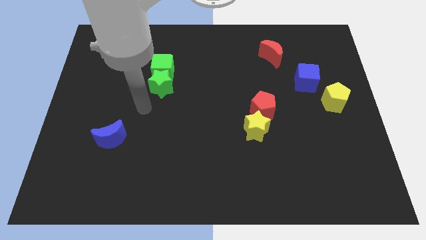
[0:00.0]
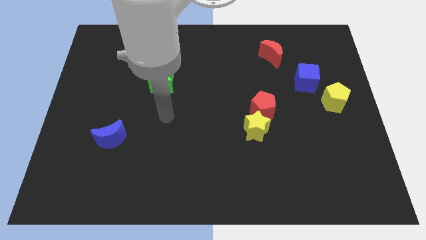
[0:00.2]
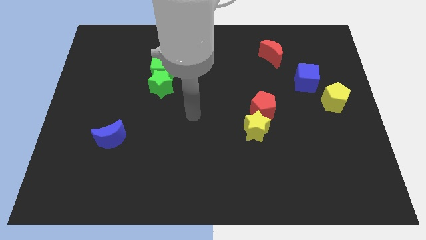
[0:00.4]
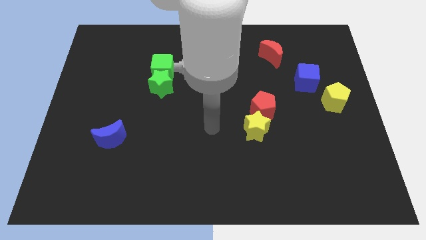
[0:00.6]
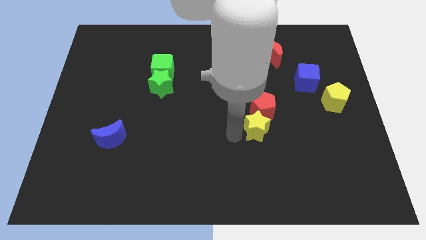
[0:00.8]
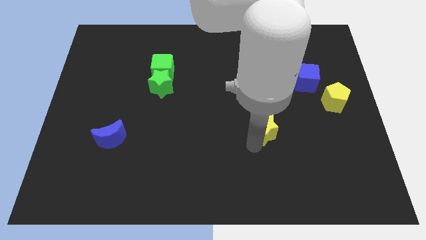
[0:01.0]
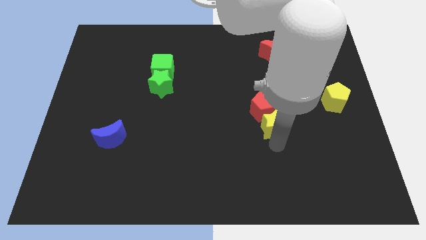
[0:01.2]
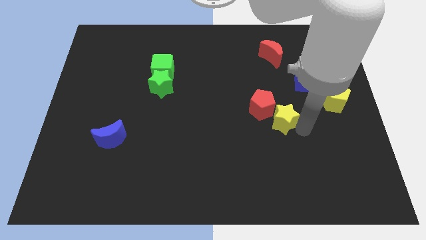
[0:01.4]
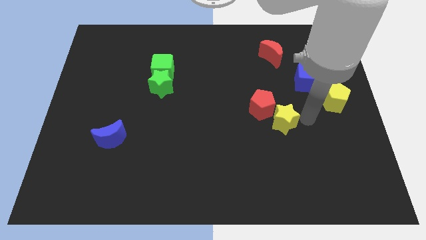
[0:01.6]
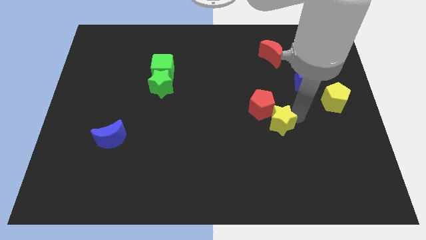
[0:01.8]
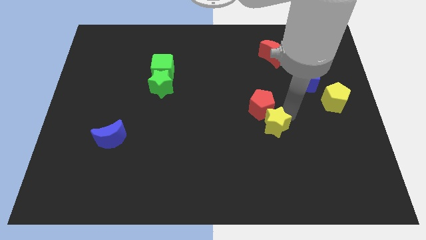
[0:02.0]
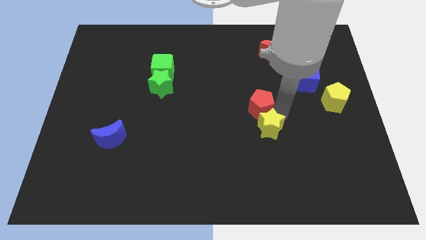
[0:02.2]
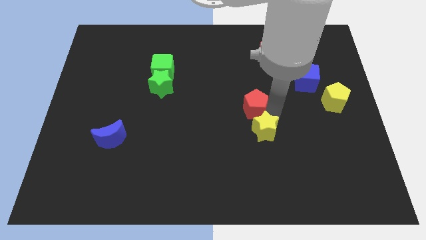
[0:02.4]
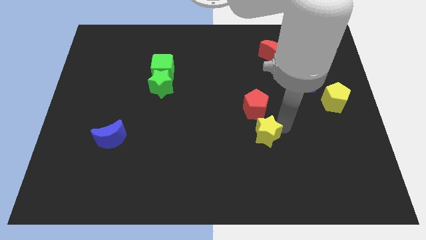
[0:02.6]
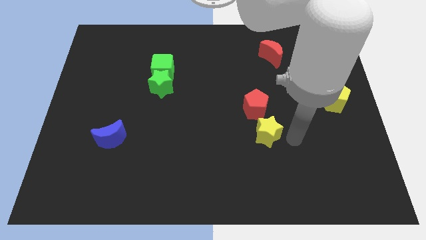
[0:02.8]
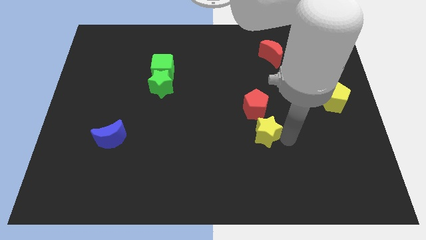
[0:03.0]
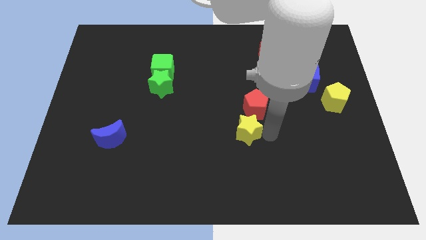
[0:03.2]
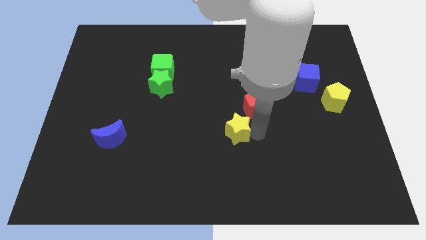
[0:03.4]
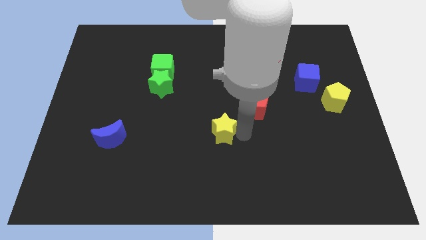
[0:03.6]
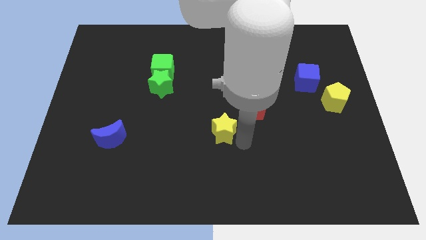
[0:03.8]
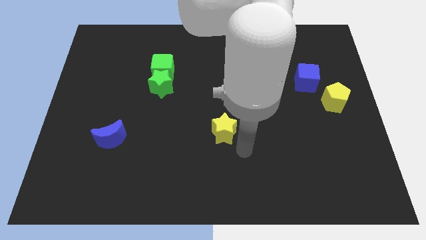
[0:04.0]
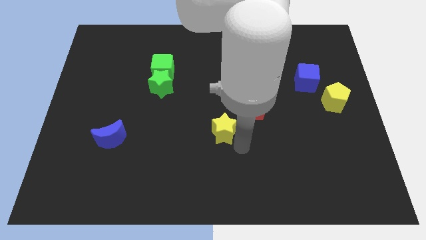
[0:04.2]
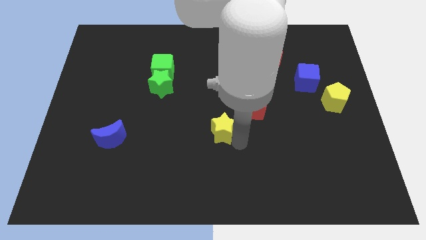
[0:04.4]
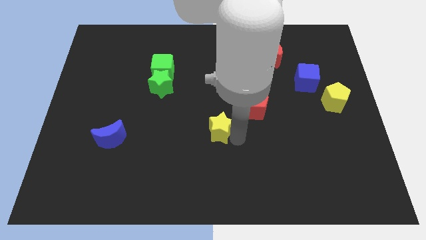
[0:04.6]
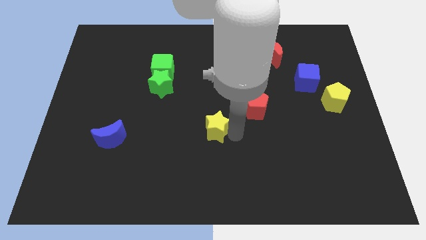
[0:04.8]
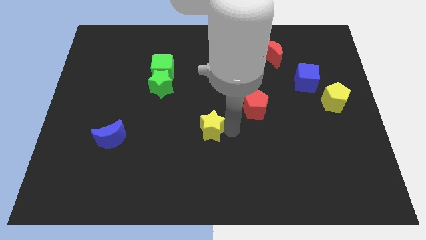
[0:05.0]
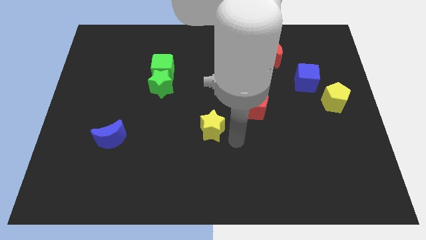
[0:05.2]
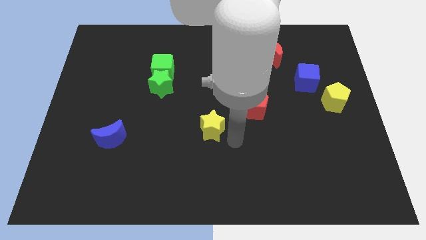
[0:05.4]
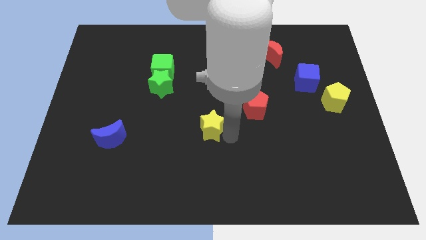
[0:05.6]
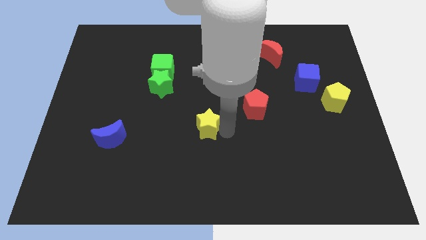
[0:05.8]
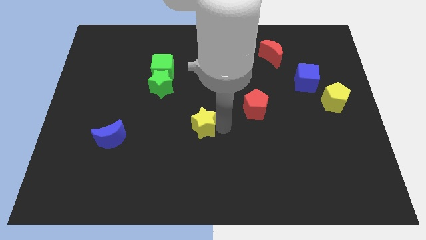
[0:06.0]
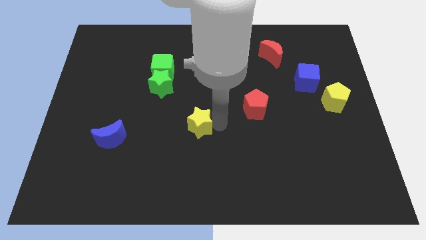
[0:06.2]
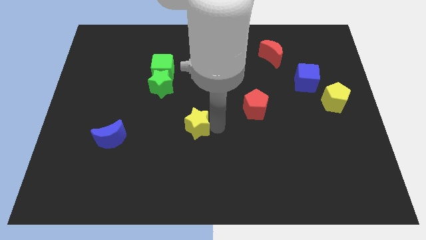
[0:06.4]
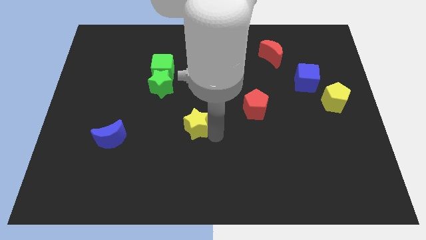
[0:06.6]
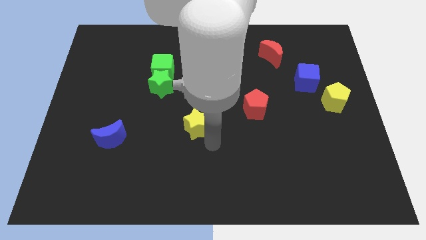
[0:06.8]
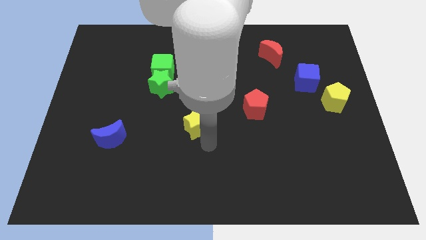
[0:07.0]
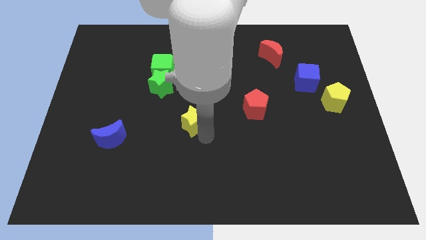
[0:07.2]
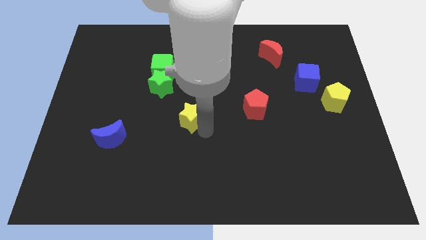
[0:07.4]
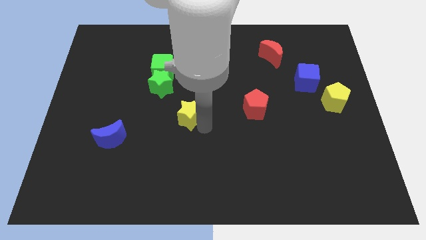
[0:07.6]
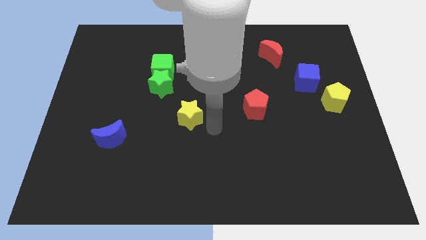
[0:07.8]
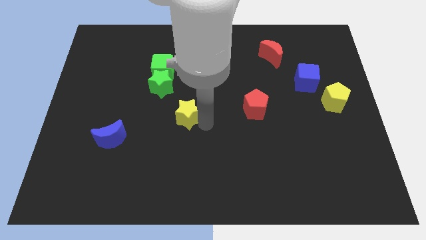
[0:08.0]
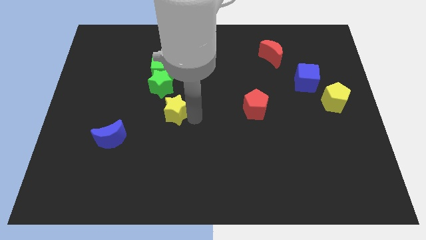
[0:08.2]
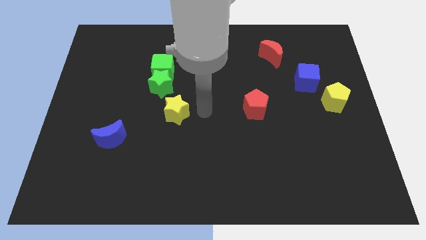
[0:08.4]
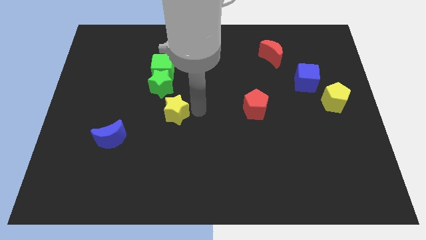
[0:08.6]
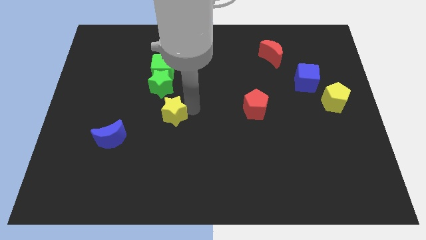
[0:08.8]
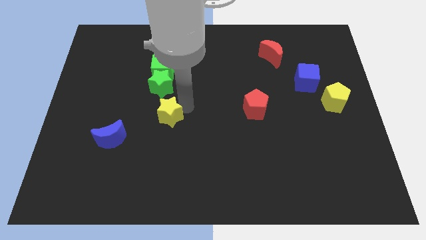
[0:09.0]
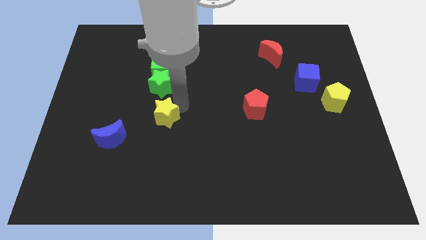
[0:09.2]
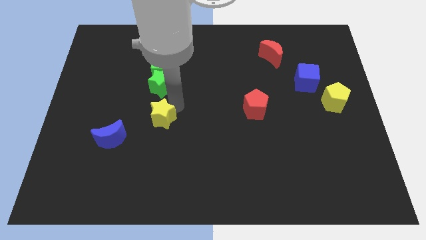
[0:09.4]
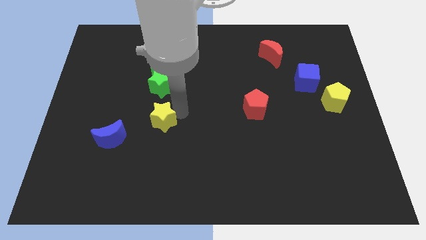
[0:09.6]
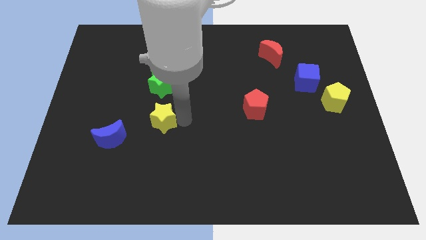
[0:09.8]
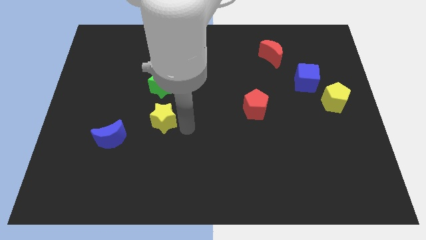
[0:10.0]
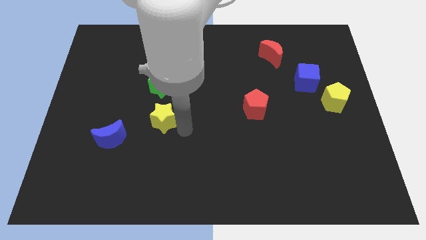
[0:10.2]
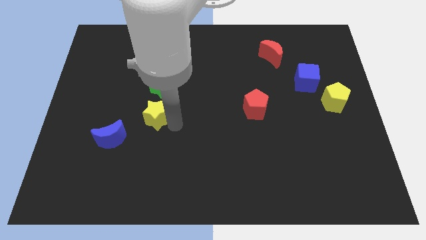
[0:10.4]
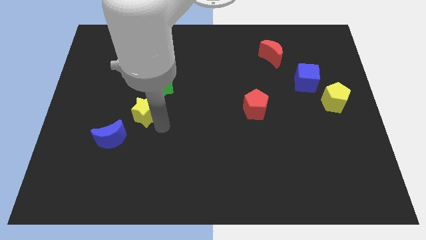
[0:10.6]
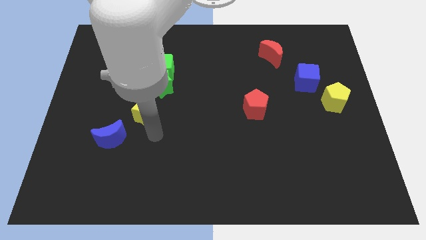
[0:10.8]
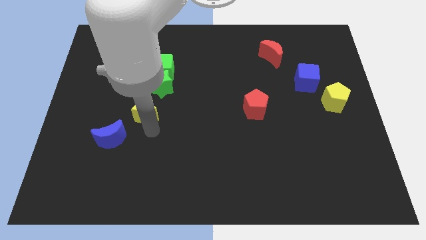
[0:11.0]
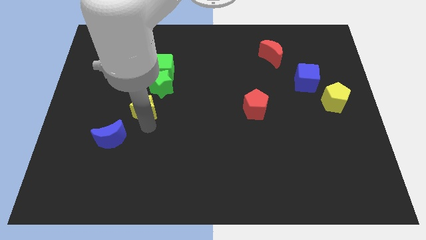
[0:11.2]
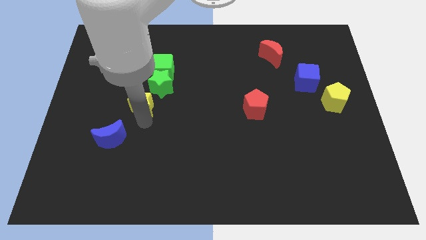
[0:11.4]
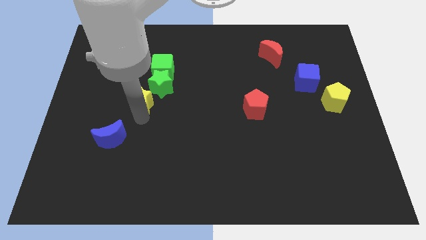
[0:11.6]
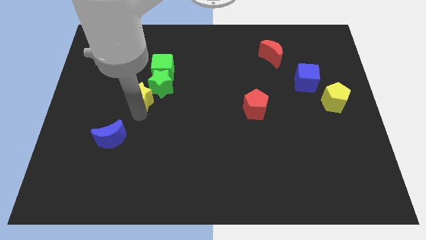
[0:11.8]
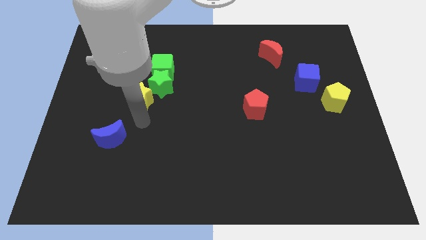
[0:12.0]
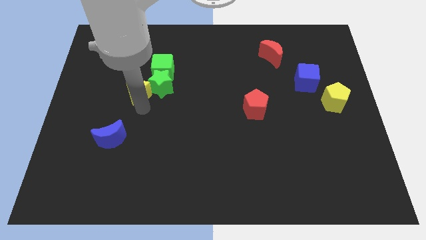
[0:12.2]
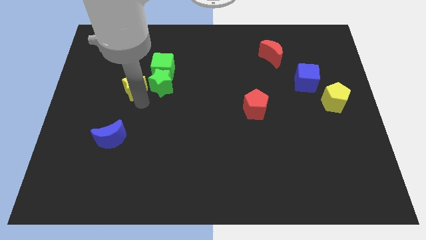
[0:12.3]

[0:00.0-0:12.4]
move the yellow star to the top left side of the green star
